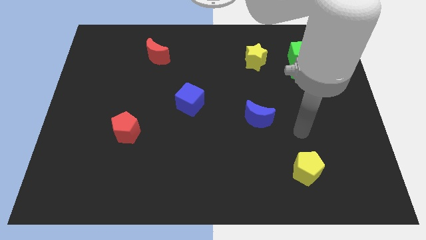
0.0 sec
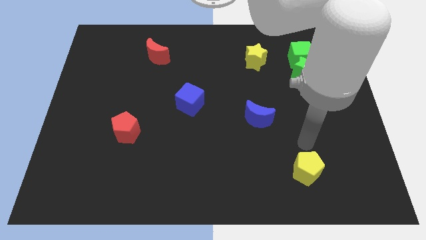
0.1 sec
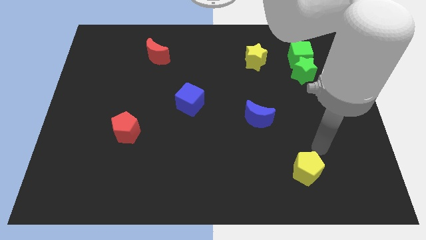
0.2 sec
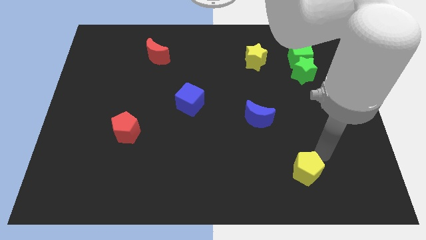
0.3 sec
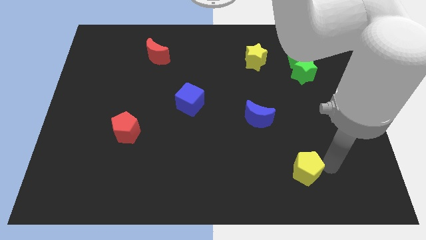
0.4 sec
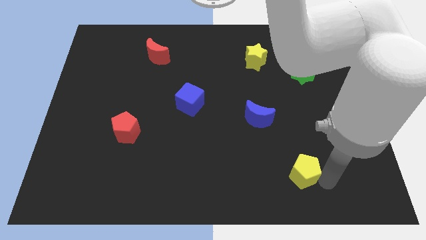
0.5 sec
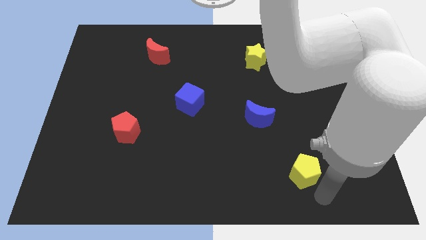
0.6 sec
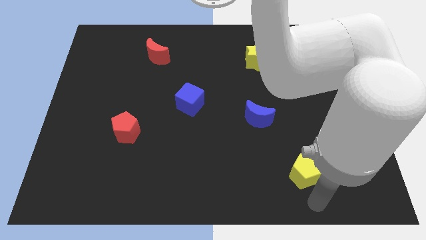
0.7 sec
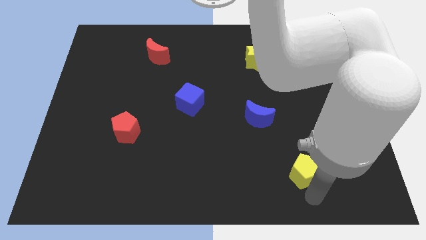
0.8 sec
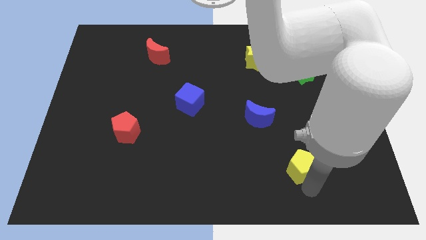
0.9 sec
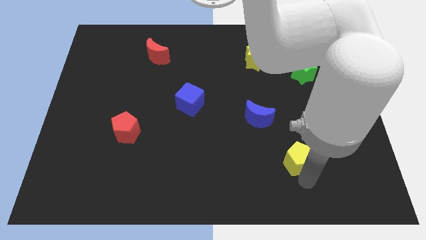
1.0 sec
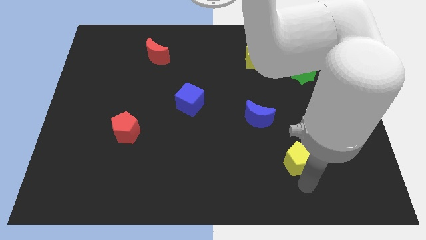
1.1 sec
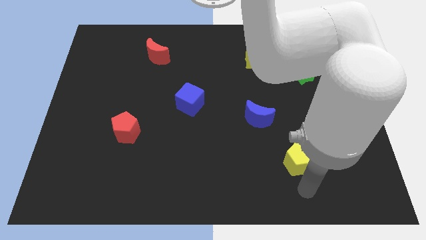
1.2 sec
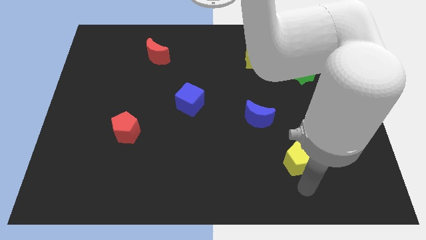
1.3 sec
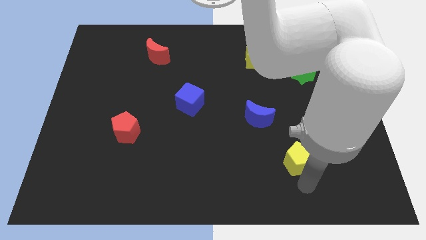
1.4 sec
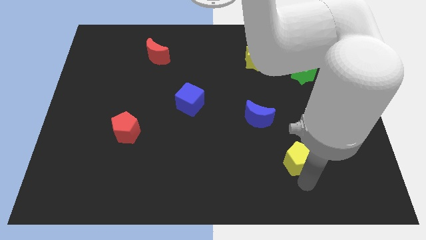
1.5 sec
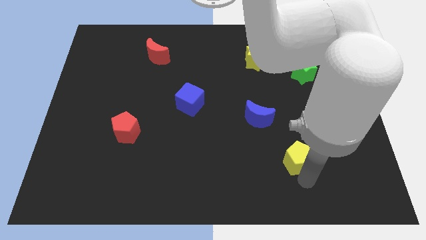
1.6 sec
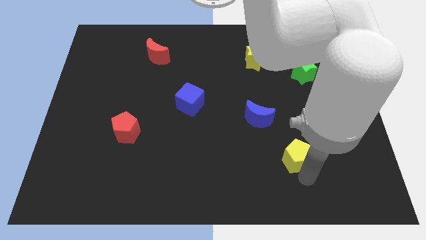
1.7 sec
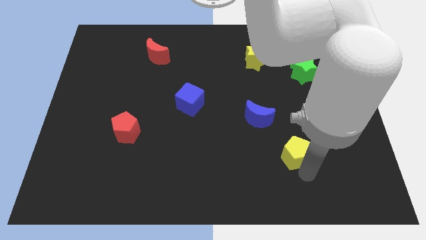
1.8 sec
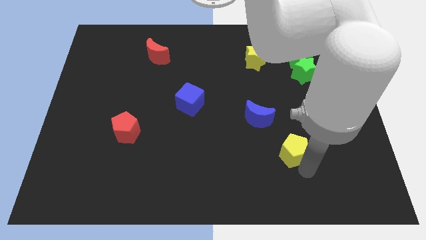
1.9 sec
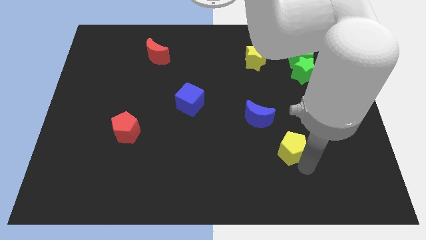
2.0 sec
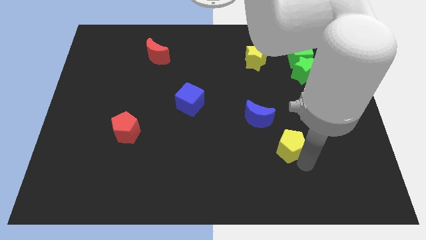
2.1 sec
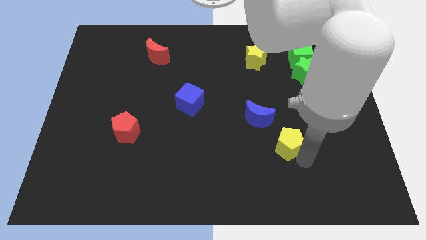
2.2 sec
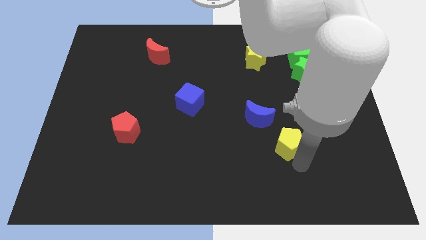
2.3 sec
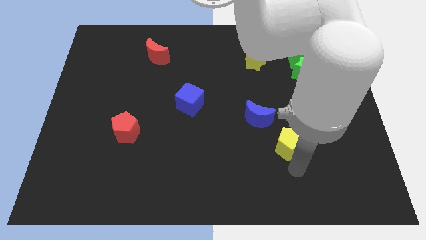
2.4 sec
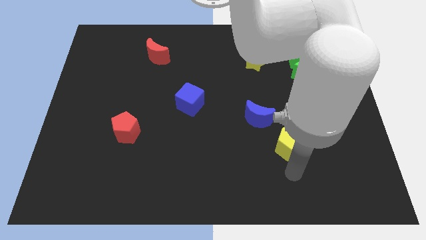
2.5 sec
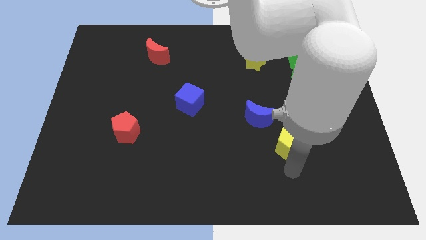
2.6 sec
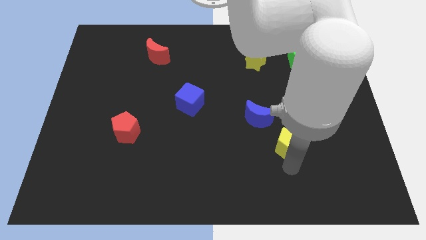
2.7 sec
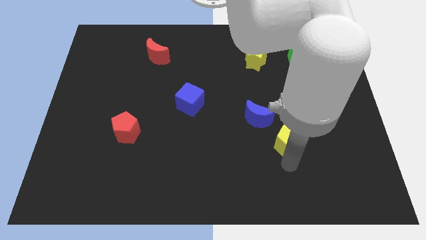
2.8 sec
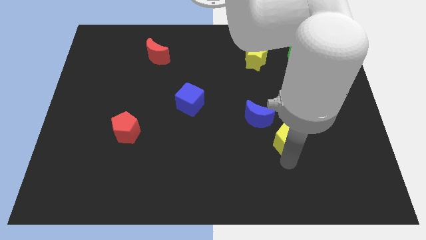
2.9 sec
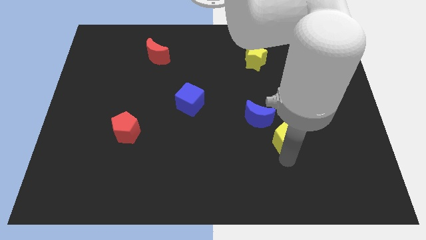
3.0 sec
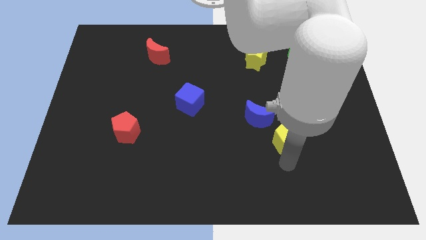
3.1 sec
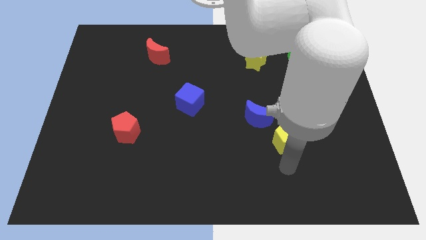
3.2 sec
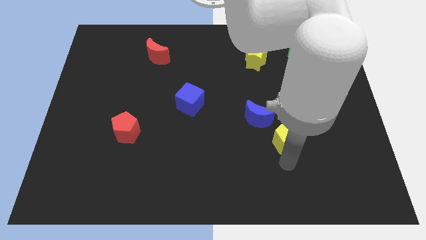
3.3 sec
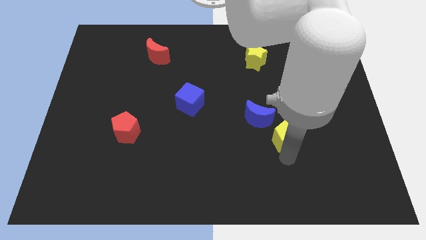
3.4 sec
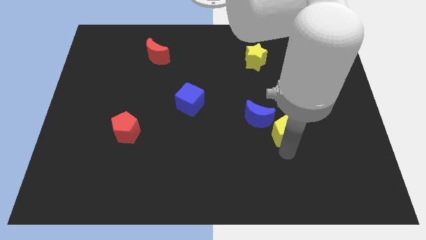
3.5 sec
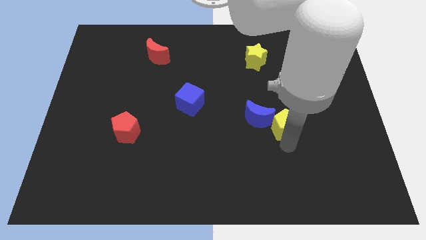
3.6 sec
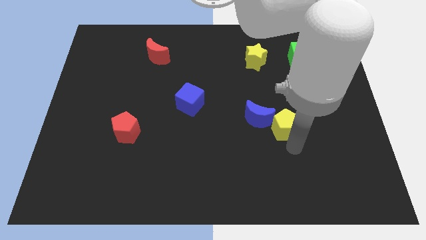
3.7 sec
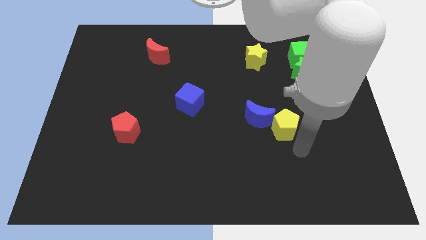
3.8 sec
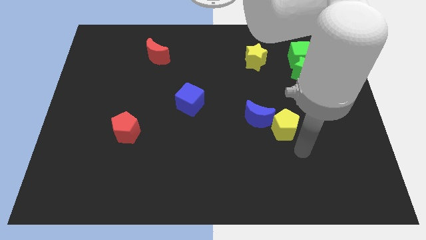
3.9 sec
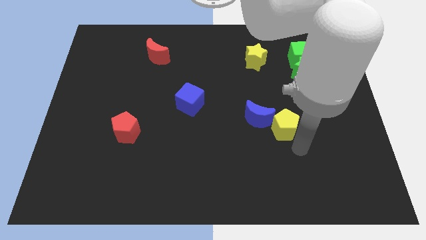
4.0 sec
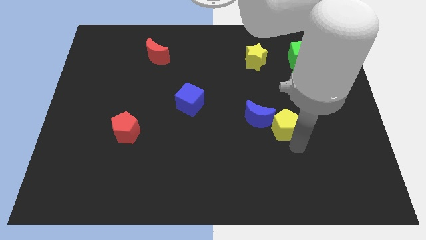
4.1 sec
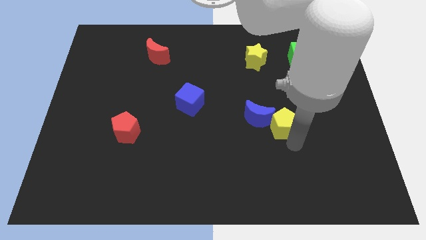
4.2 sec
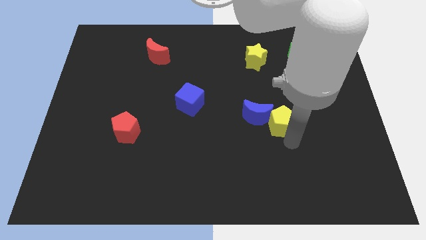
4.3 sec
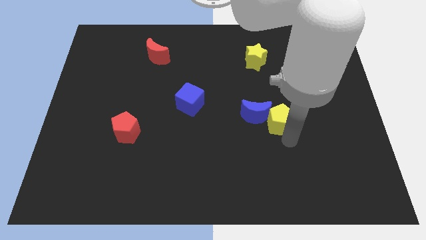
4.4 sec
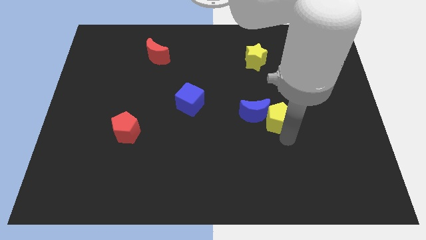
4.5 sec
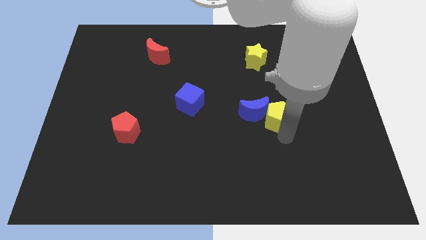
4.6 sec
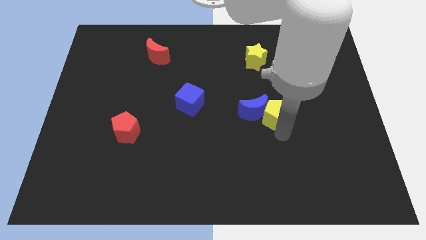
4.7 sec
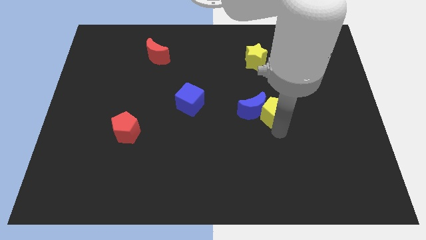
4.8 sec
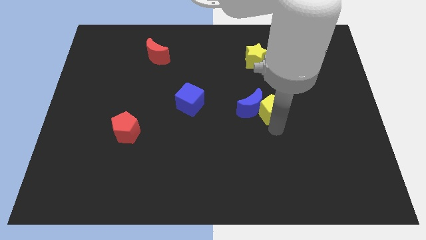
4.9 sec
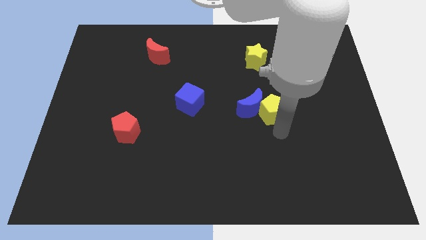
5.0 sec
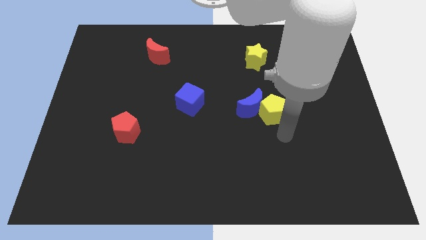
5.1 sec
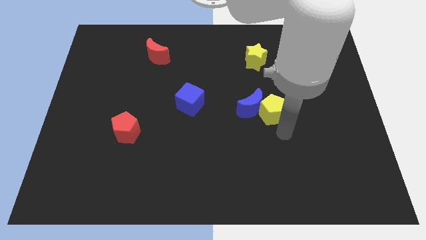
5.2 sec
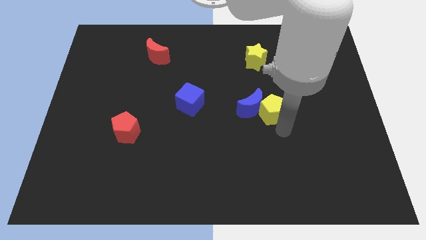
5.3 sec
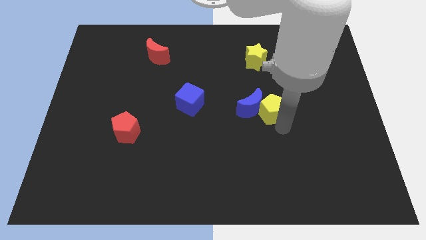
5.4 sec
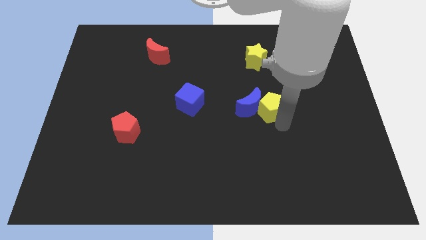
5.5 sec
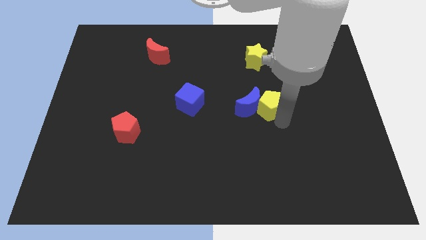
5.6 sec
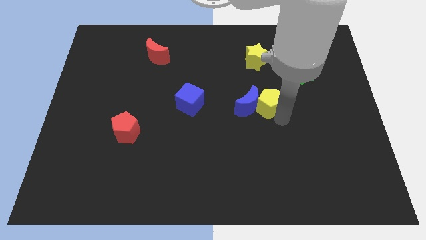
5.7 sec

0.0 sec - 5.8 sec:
push the yellow pentagon below the yellow star

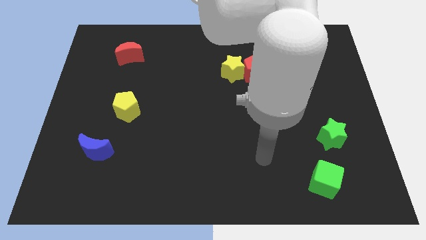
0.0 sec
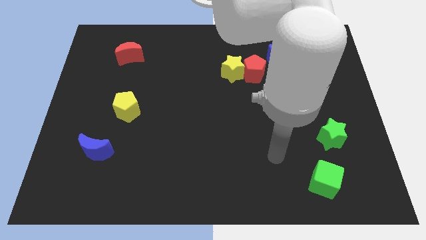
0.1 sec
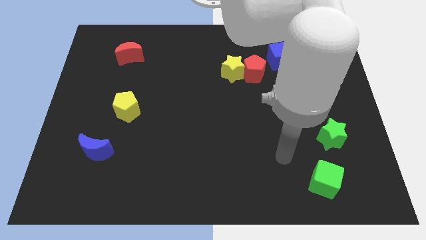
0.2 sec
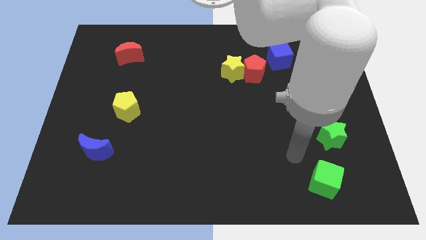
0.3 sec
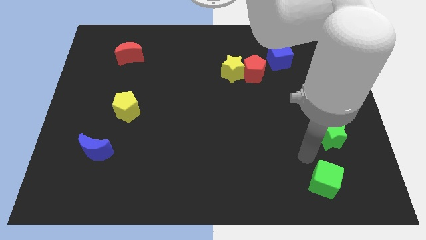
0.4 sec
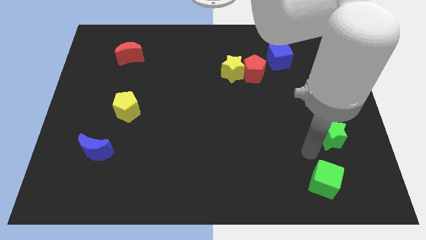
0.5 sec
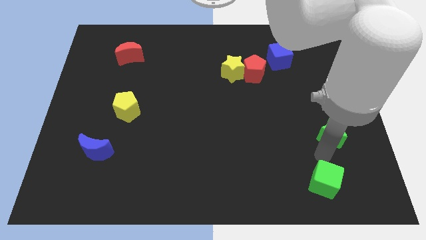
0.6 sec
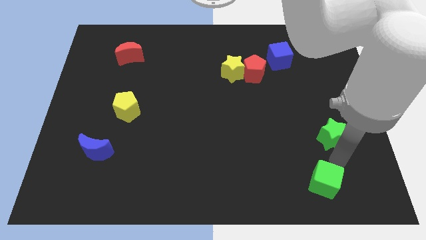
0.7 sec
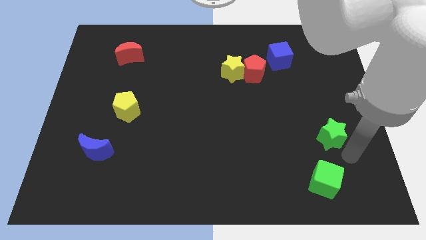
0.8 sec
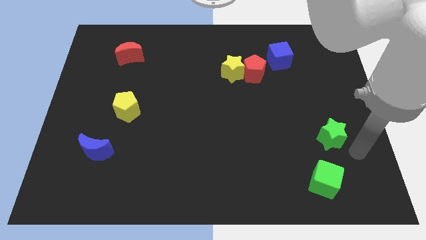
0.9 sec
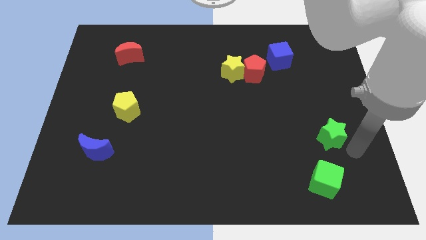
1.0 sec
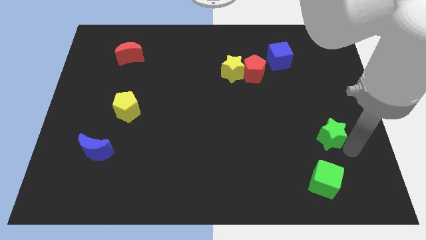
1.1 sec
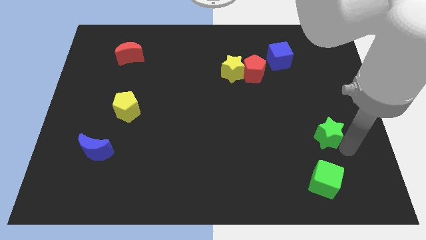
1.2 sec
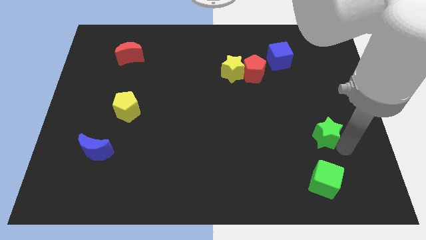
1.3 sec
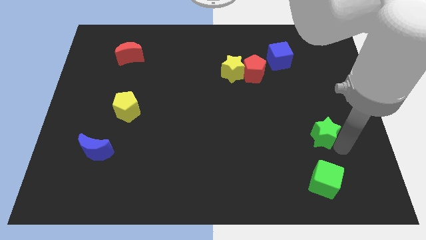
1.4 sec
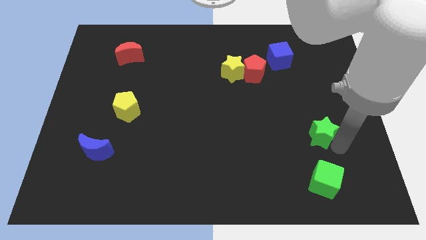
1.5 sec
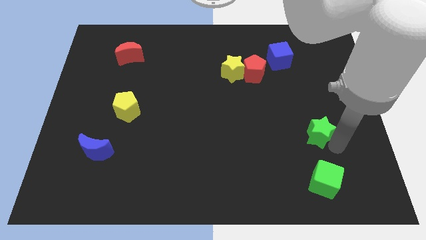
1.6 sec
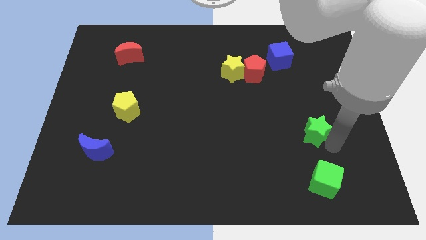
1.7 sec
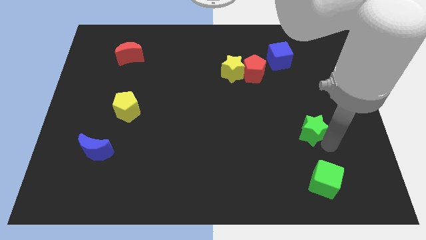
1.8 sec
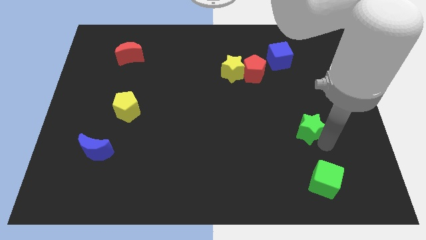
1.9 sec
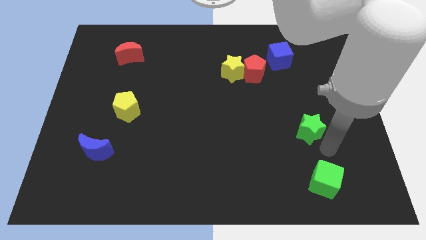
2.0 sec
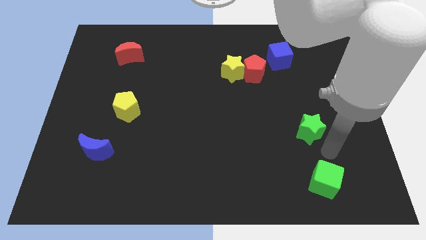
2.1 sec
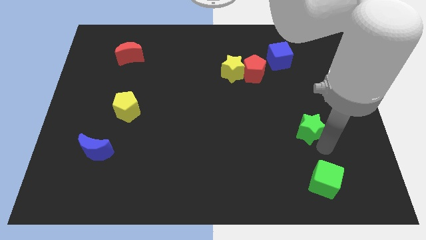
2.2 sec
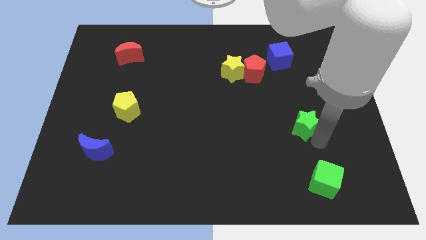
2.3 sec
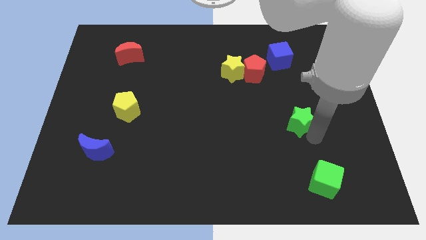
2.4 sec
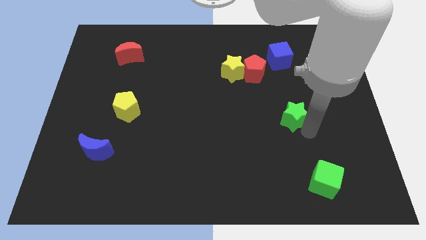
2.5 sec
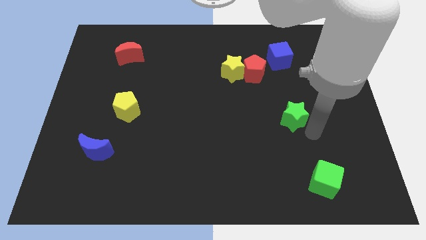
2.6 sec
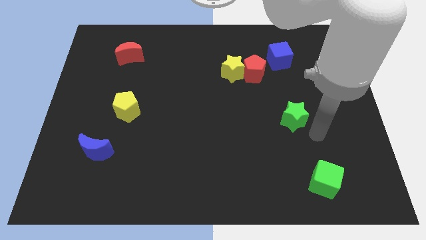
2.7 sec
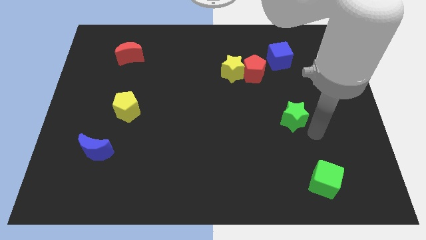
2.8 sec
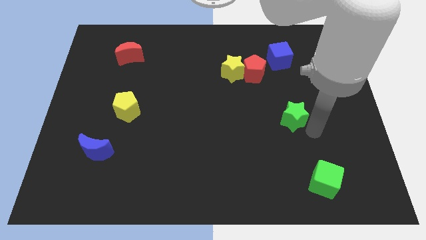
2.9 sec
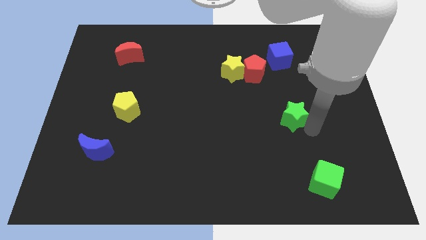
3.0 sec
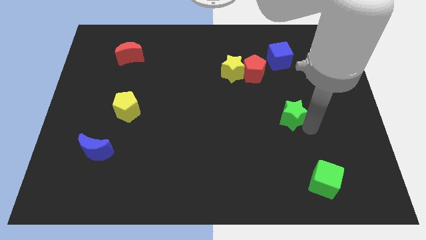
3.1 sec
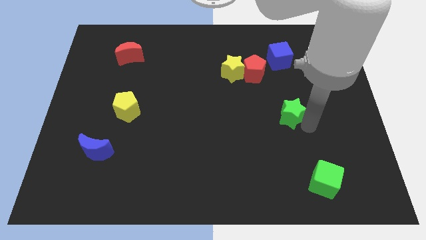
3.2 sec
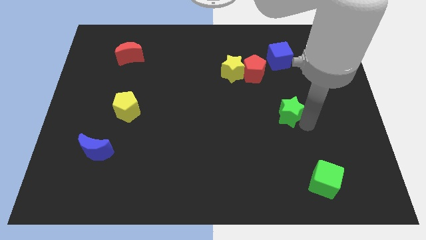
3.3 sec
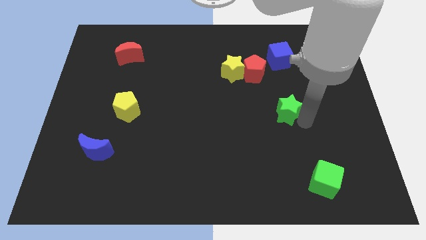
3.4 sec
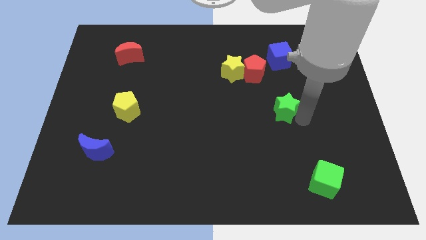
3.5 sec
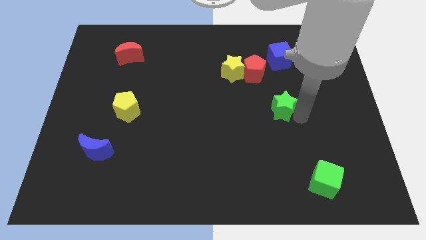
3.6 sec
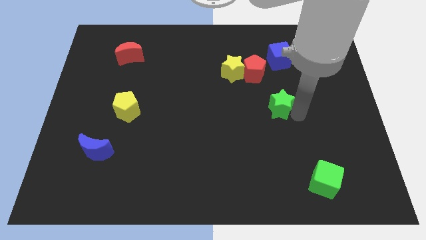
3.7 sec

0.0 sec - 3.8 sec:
put the green star to the bottom side of the red pentagon
